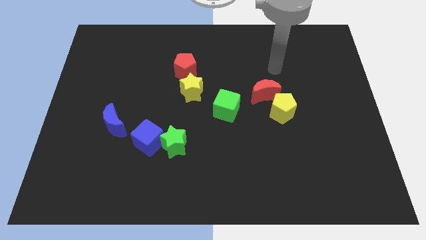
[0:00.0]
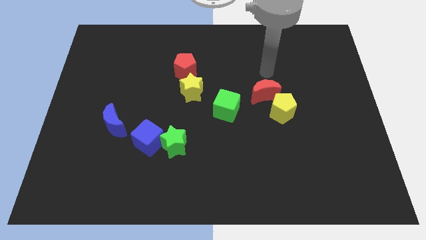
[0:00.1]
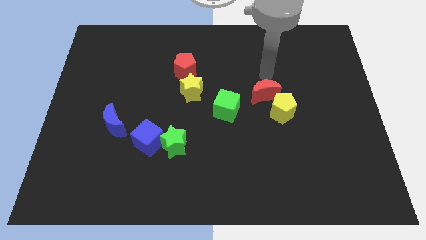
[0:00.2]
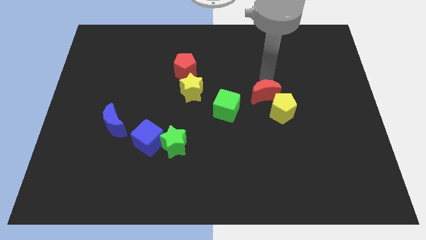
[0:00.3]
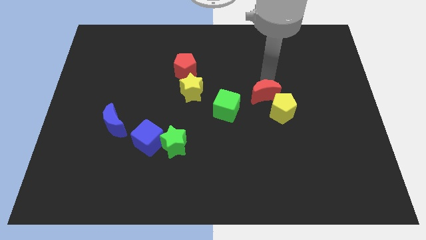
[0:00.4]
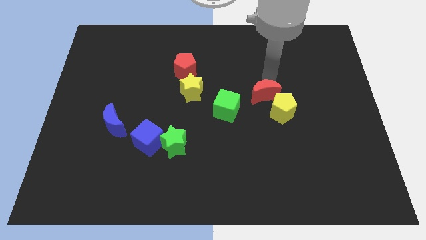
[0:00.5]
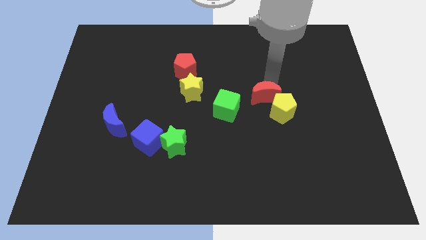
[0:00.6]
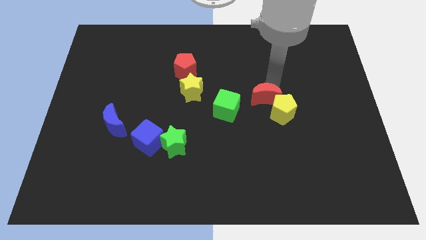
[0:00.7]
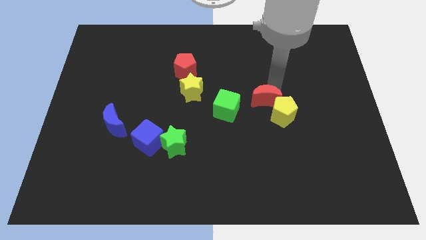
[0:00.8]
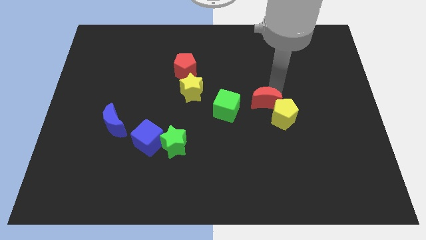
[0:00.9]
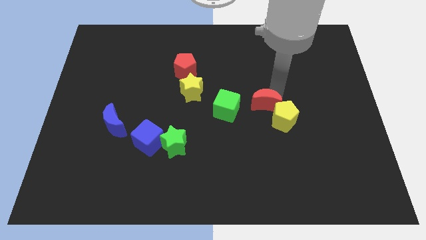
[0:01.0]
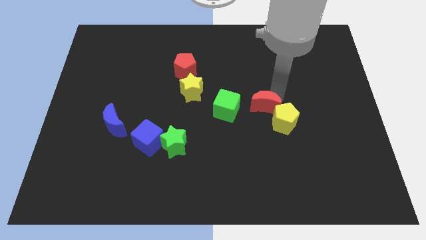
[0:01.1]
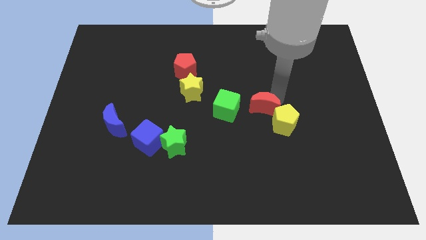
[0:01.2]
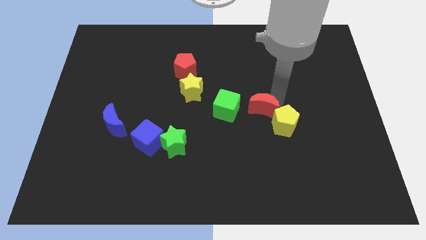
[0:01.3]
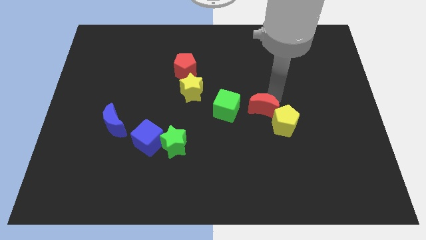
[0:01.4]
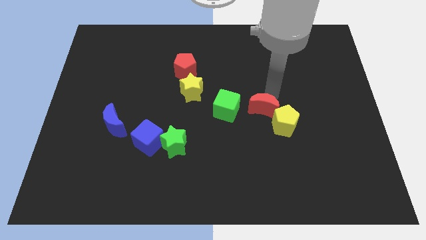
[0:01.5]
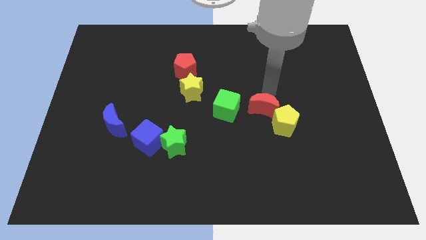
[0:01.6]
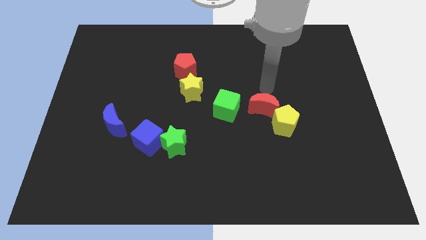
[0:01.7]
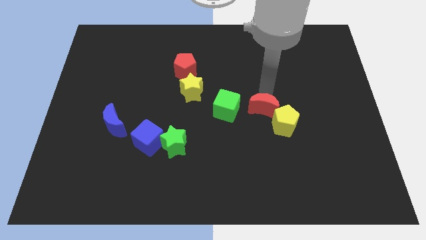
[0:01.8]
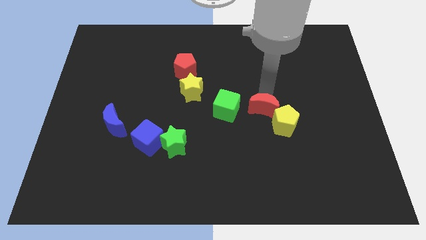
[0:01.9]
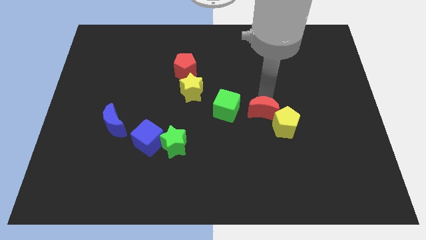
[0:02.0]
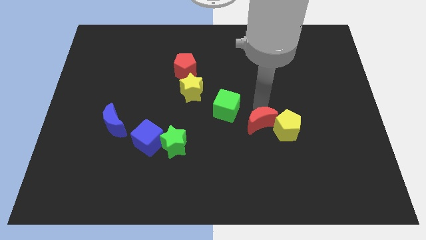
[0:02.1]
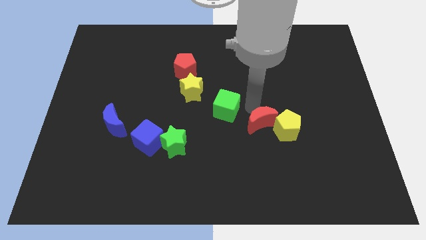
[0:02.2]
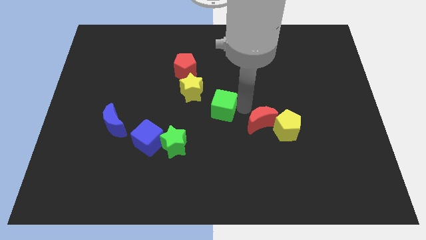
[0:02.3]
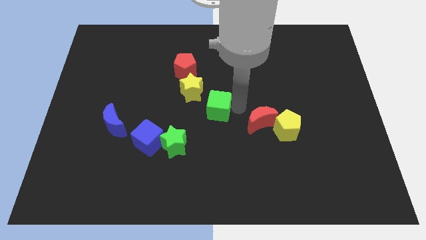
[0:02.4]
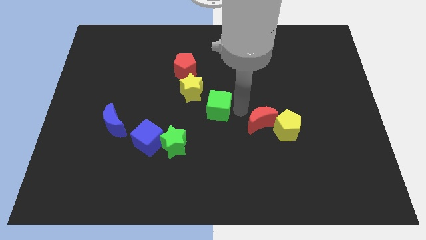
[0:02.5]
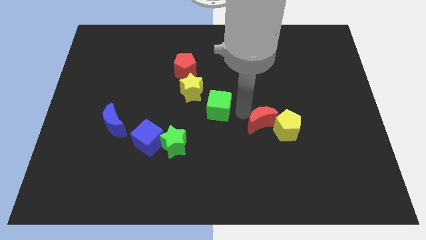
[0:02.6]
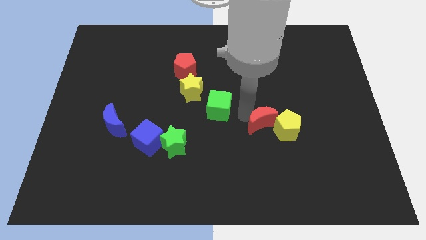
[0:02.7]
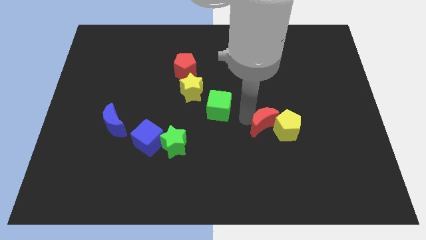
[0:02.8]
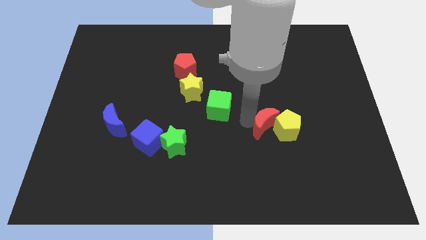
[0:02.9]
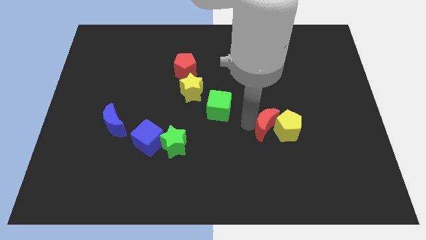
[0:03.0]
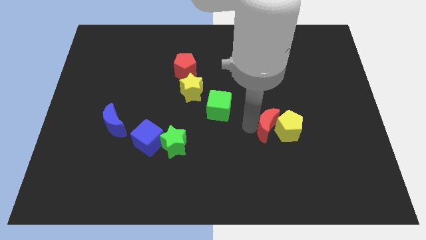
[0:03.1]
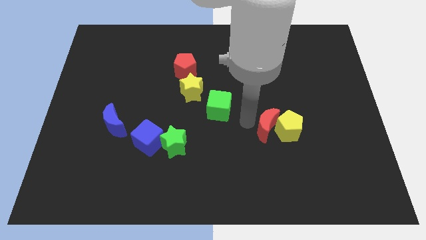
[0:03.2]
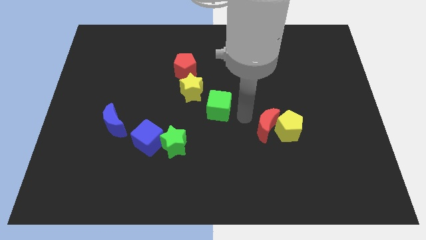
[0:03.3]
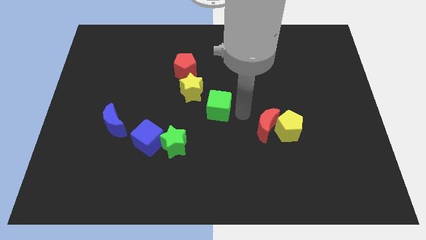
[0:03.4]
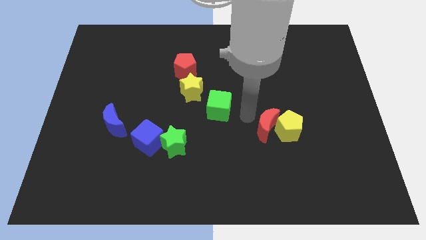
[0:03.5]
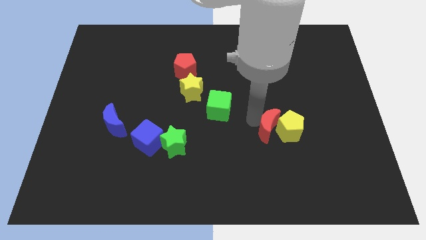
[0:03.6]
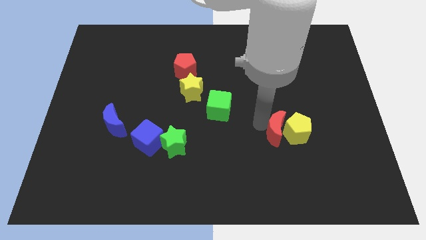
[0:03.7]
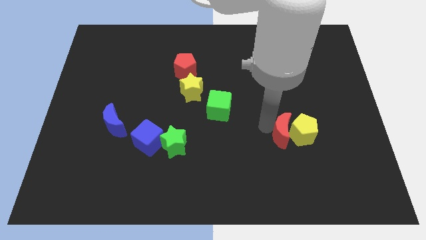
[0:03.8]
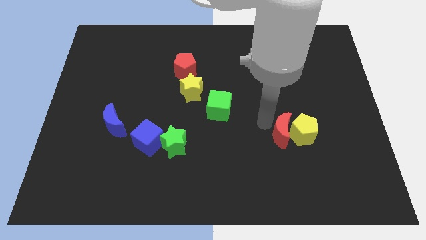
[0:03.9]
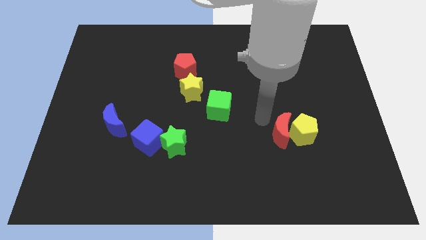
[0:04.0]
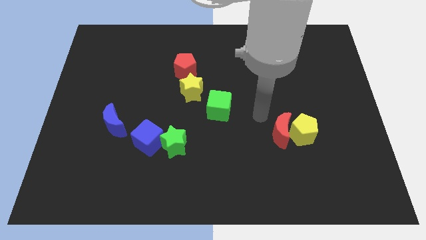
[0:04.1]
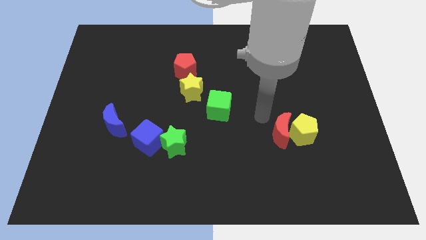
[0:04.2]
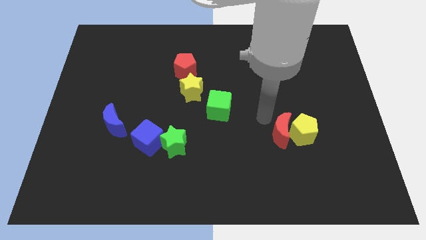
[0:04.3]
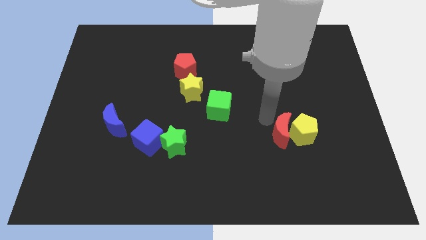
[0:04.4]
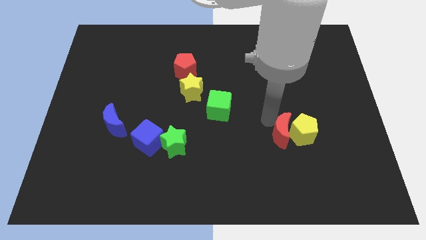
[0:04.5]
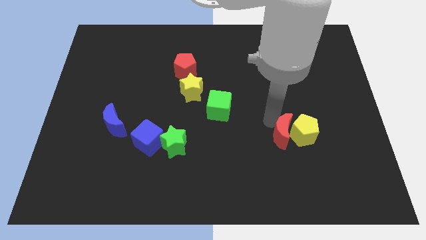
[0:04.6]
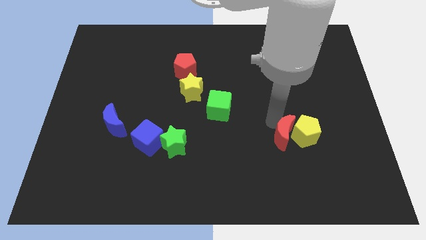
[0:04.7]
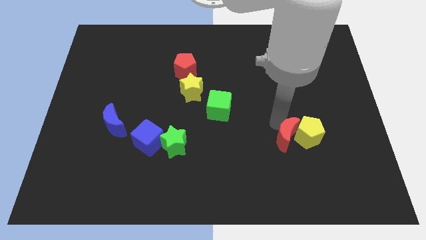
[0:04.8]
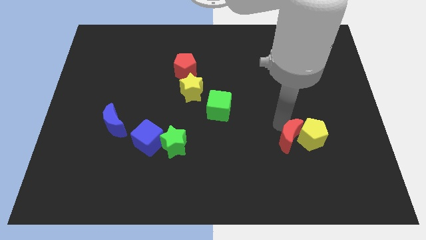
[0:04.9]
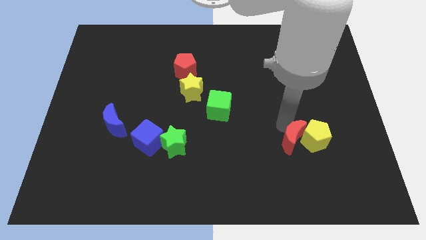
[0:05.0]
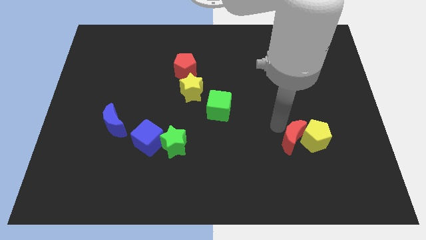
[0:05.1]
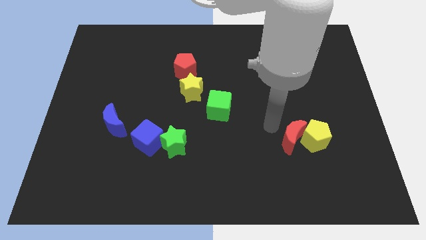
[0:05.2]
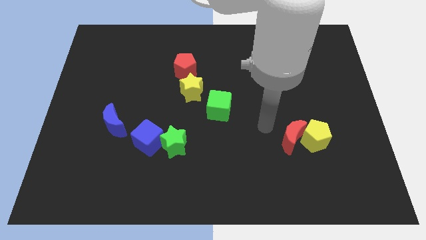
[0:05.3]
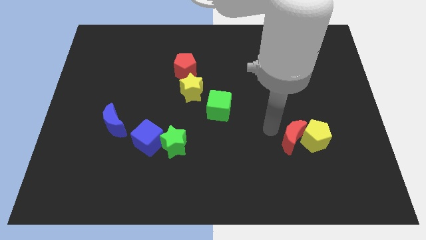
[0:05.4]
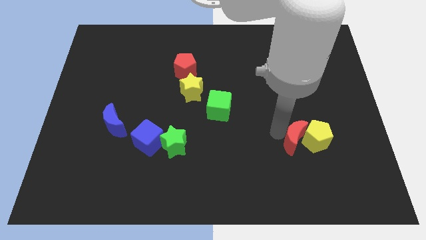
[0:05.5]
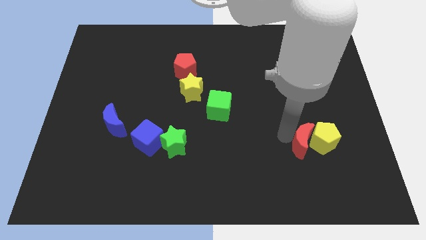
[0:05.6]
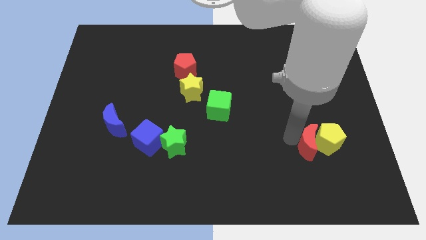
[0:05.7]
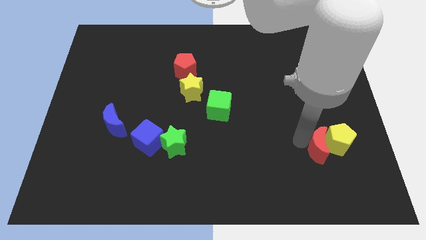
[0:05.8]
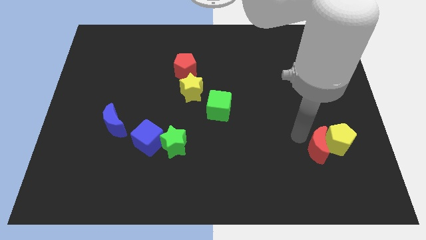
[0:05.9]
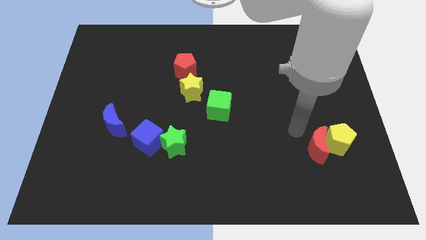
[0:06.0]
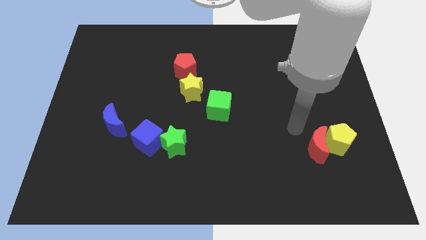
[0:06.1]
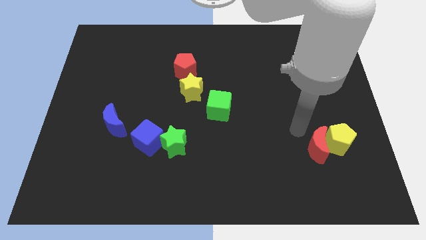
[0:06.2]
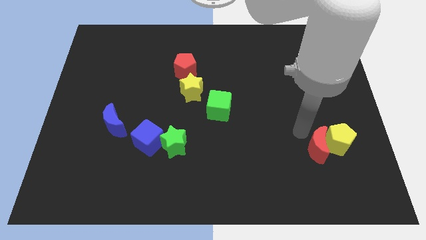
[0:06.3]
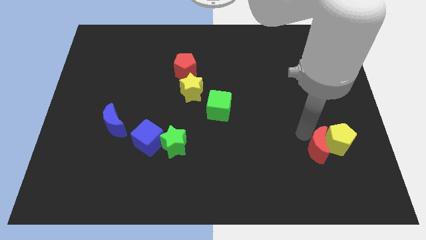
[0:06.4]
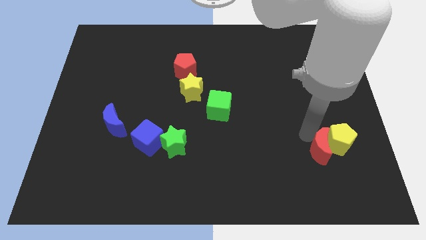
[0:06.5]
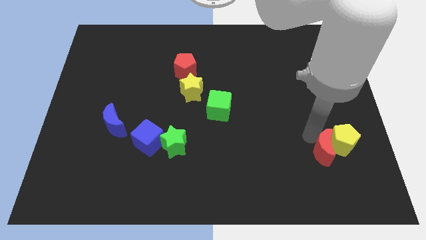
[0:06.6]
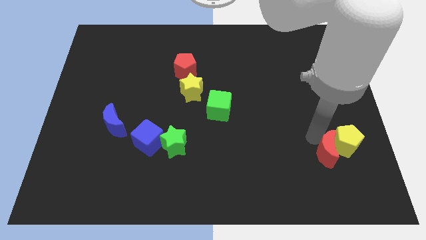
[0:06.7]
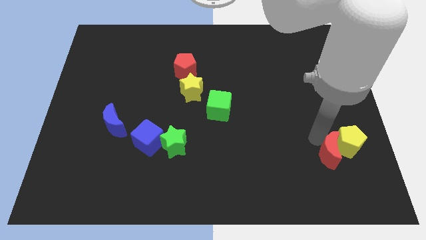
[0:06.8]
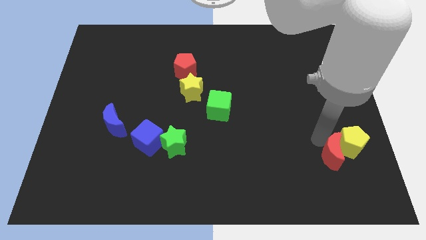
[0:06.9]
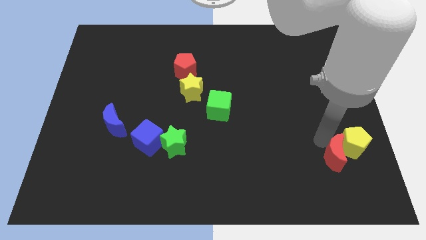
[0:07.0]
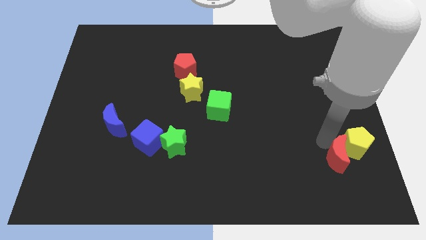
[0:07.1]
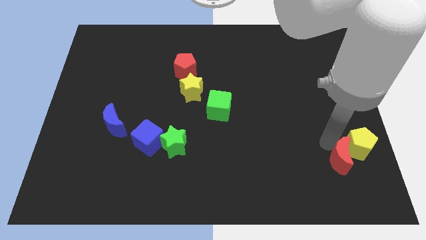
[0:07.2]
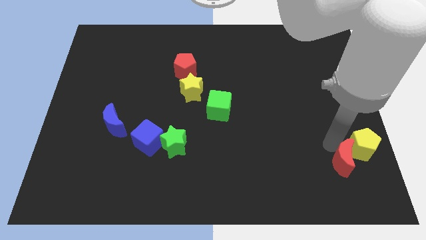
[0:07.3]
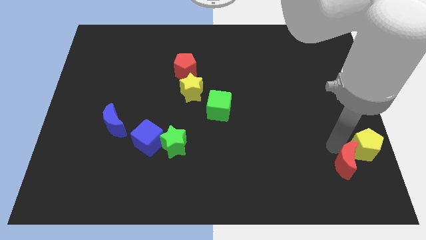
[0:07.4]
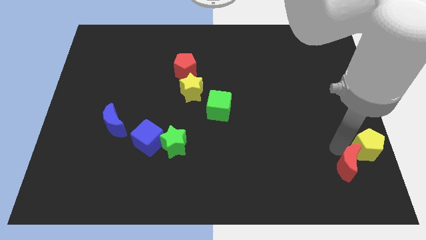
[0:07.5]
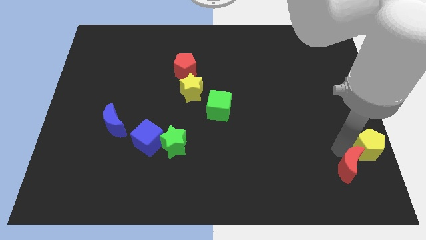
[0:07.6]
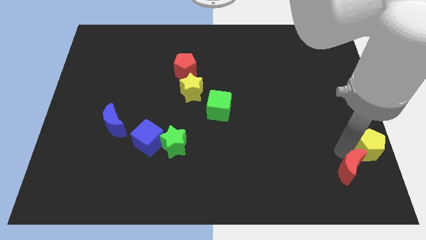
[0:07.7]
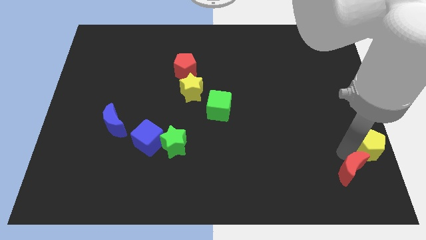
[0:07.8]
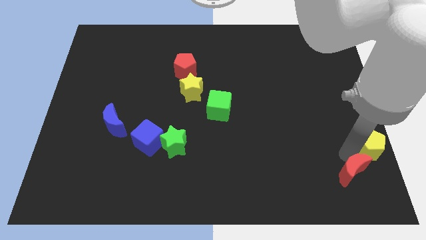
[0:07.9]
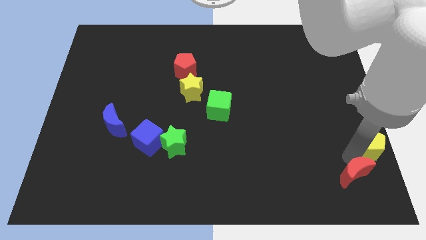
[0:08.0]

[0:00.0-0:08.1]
slide the red moon to the bottom right of the board
